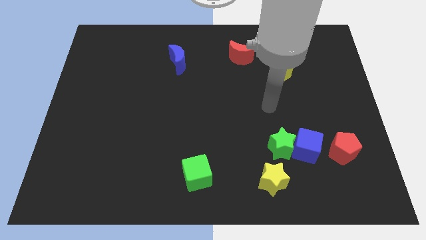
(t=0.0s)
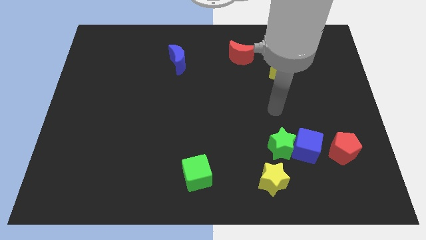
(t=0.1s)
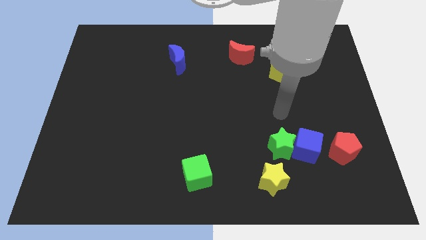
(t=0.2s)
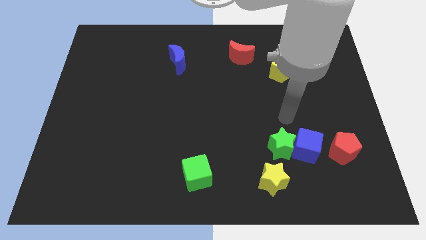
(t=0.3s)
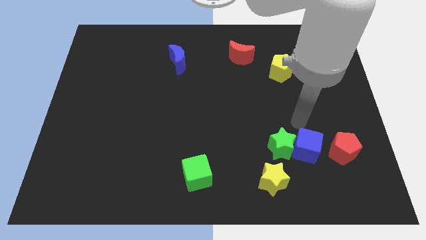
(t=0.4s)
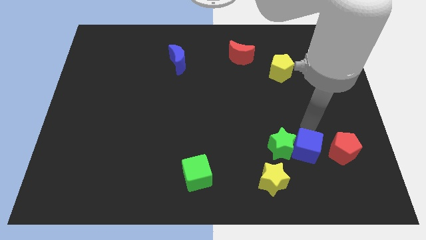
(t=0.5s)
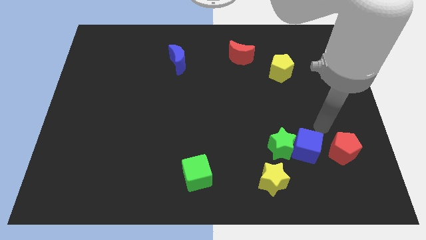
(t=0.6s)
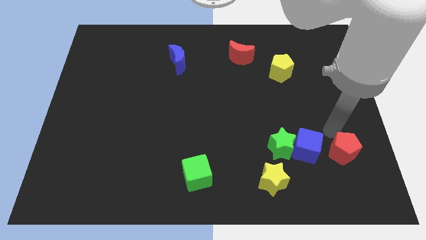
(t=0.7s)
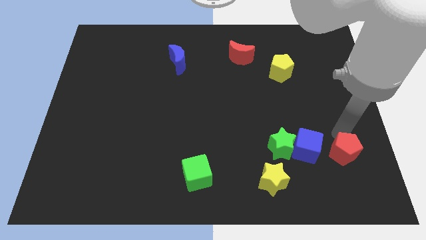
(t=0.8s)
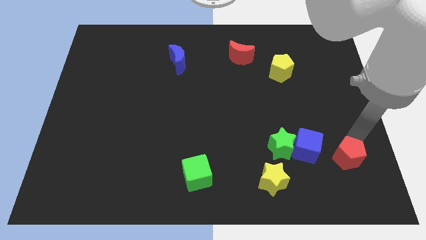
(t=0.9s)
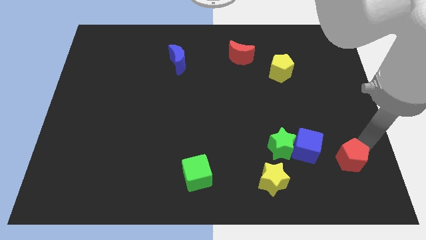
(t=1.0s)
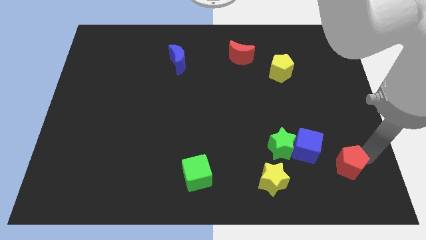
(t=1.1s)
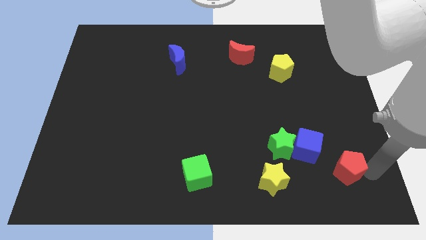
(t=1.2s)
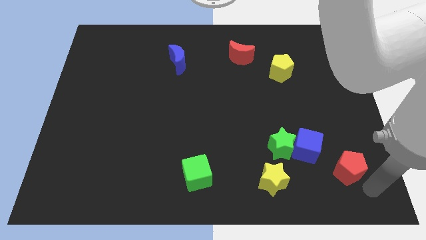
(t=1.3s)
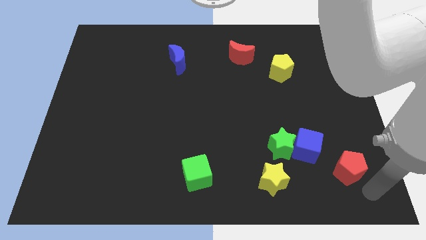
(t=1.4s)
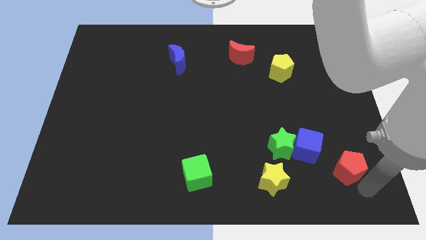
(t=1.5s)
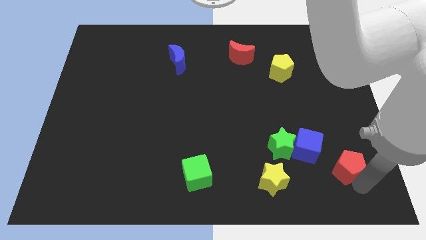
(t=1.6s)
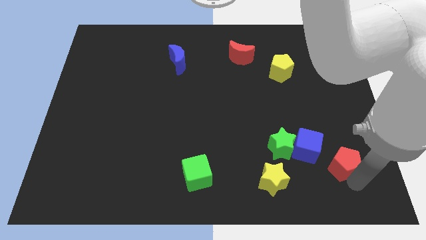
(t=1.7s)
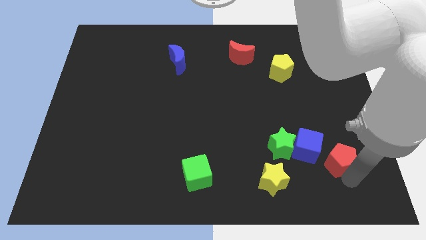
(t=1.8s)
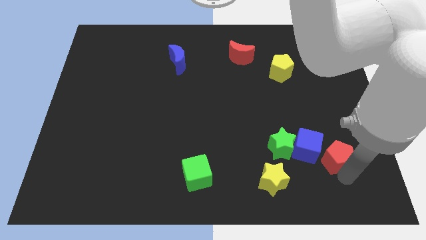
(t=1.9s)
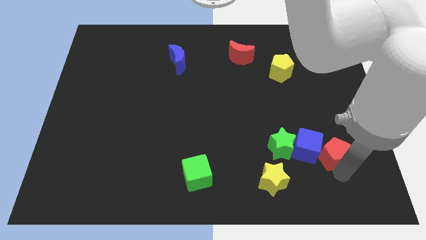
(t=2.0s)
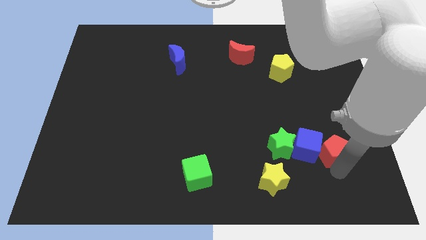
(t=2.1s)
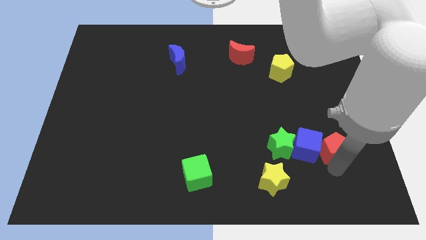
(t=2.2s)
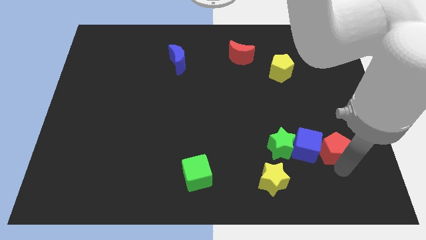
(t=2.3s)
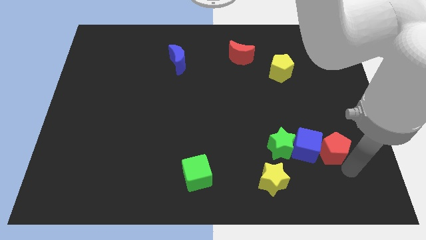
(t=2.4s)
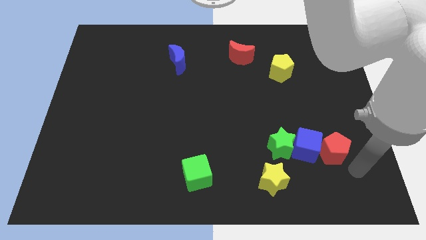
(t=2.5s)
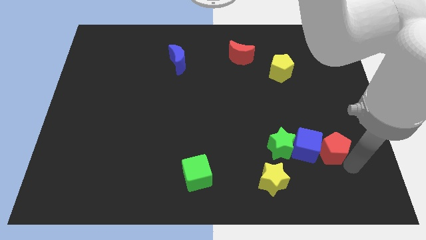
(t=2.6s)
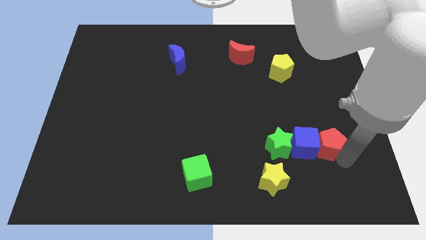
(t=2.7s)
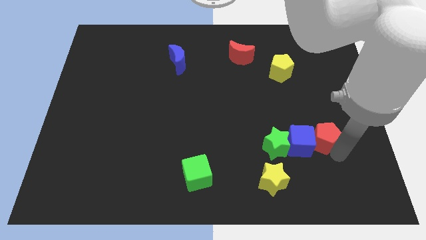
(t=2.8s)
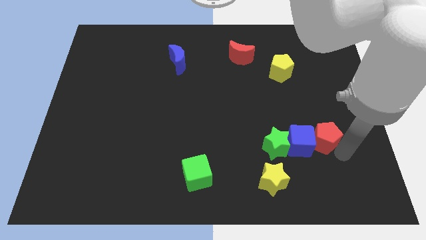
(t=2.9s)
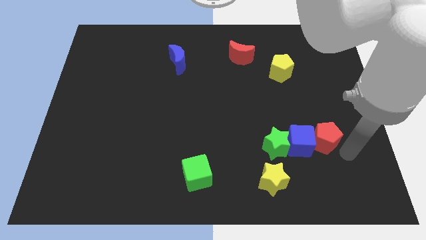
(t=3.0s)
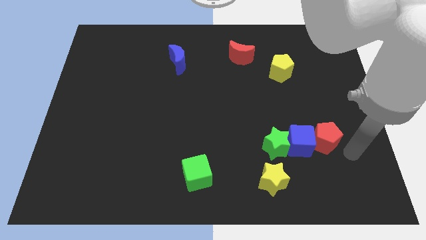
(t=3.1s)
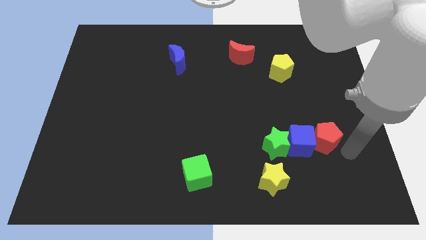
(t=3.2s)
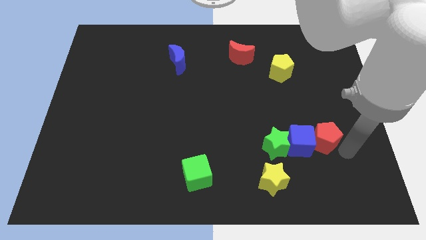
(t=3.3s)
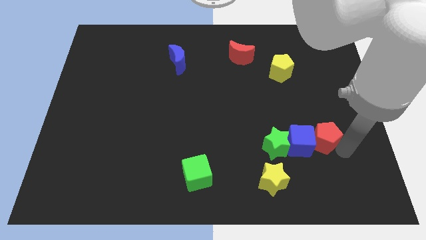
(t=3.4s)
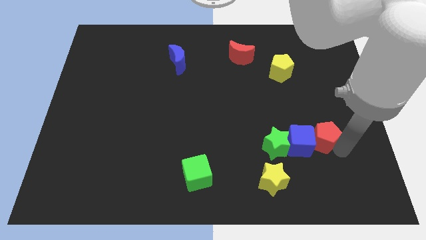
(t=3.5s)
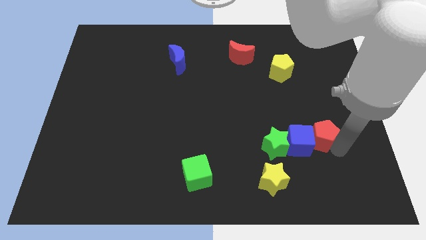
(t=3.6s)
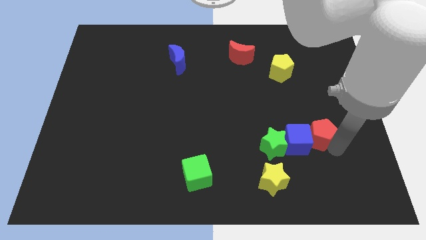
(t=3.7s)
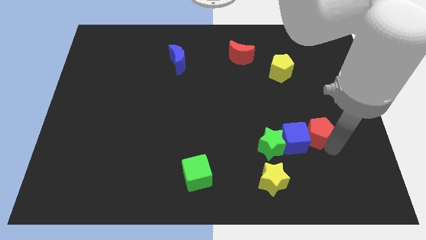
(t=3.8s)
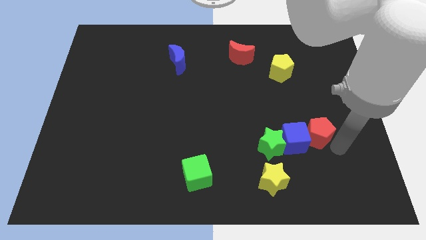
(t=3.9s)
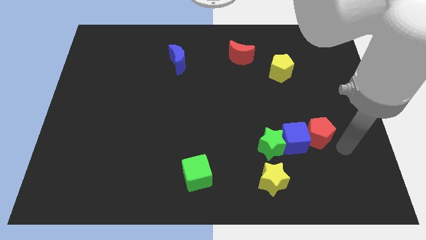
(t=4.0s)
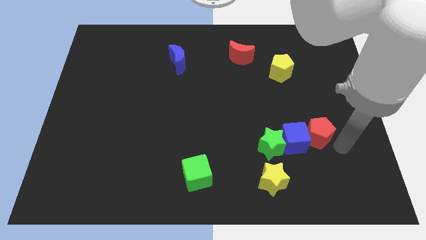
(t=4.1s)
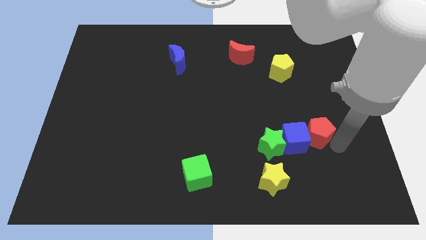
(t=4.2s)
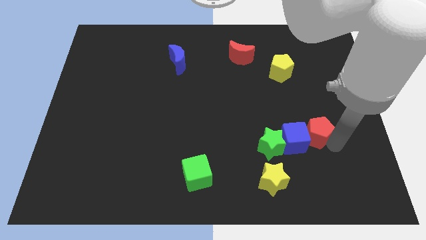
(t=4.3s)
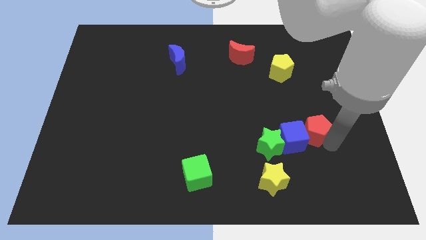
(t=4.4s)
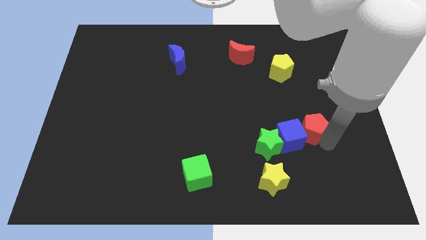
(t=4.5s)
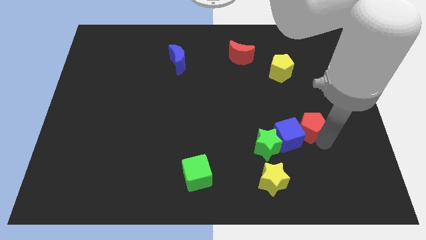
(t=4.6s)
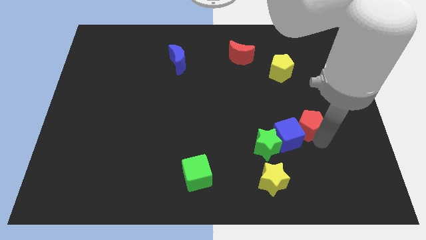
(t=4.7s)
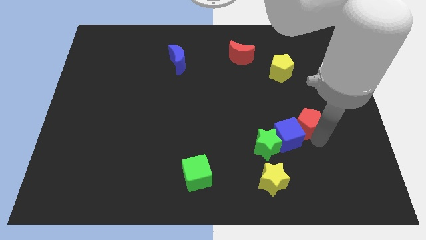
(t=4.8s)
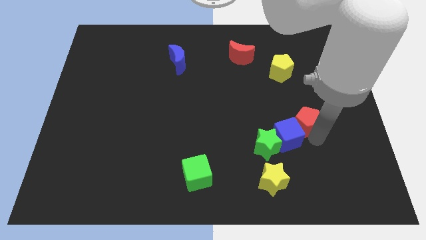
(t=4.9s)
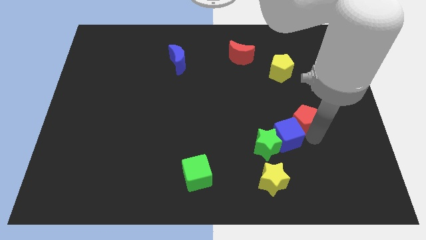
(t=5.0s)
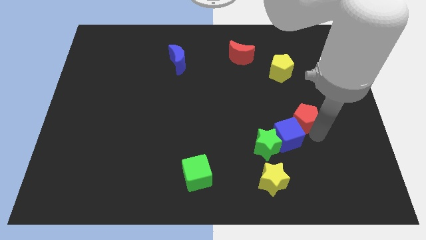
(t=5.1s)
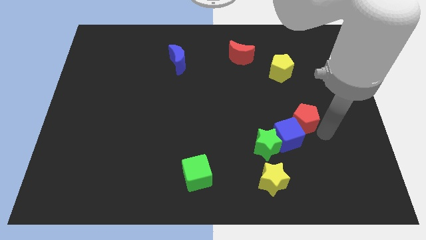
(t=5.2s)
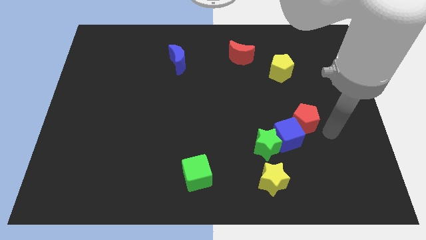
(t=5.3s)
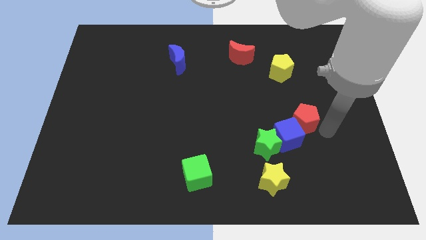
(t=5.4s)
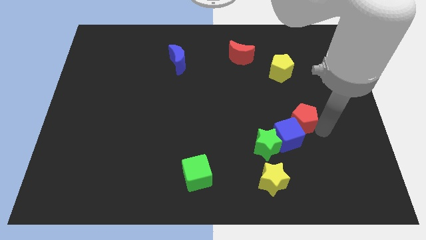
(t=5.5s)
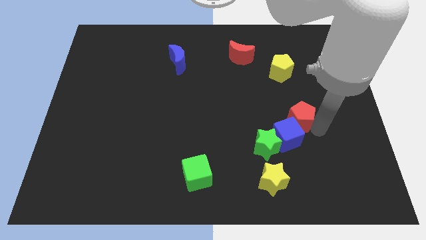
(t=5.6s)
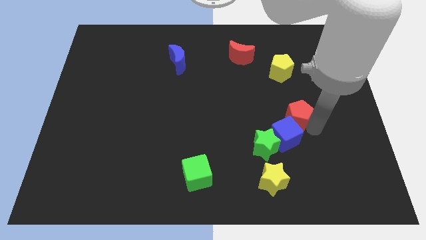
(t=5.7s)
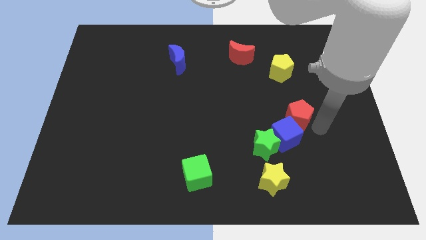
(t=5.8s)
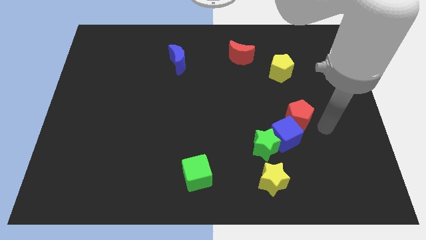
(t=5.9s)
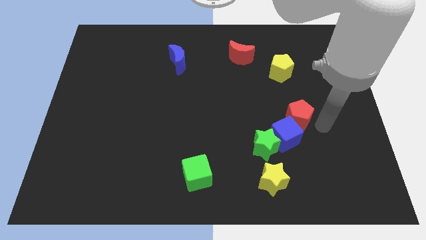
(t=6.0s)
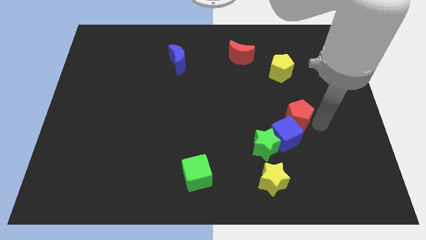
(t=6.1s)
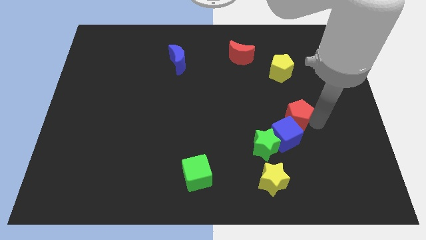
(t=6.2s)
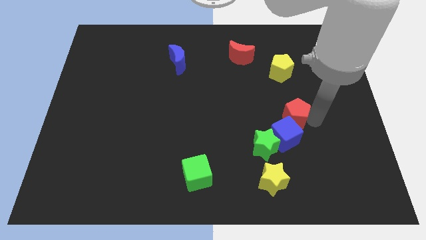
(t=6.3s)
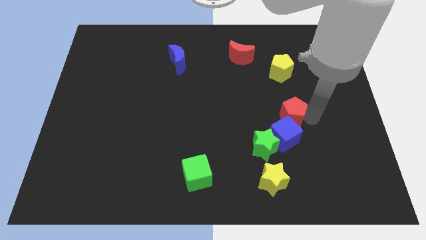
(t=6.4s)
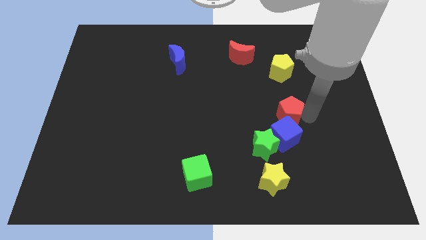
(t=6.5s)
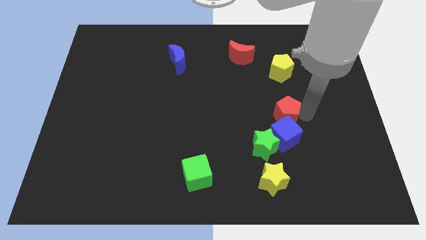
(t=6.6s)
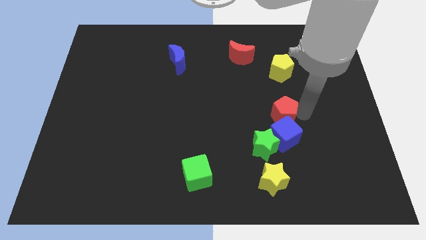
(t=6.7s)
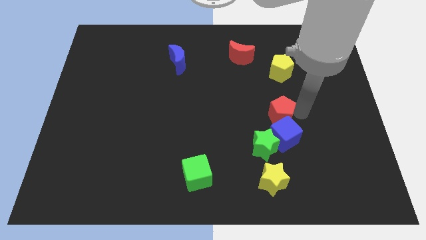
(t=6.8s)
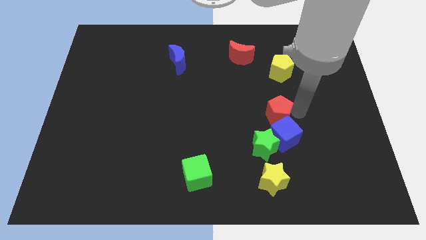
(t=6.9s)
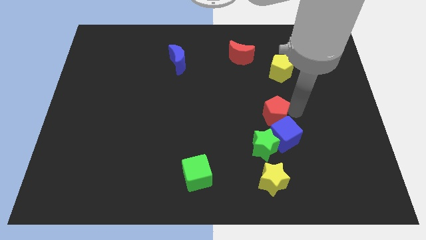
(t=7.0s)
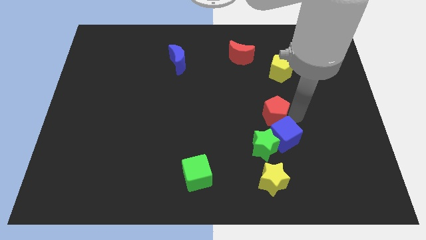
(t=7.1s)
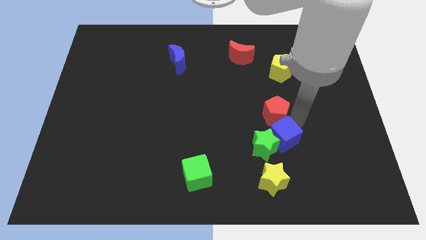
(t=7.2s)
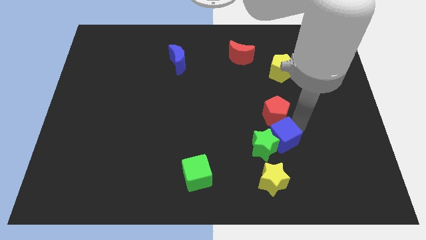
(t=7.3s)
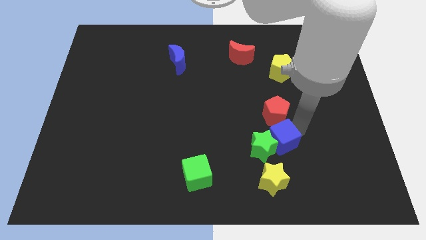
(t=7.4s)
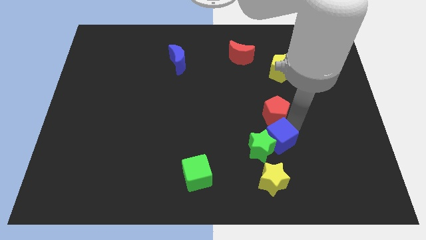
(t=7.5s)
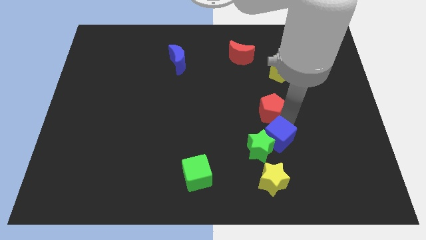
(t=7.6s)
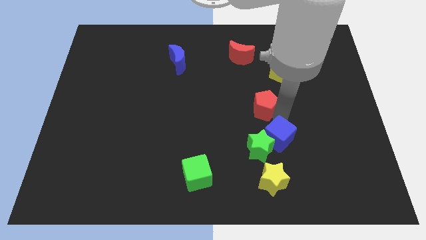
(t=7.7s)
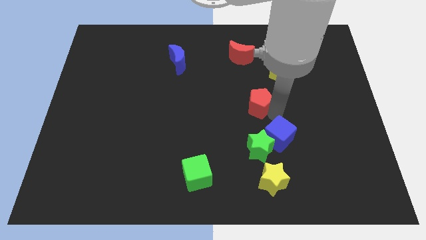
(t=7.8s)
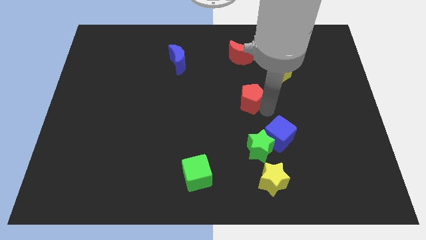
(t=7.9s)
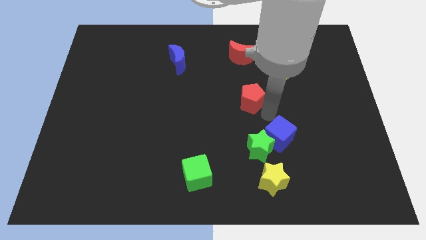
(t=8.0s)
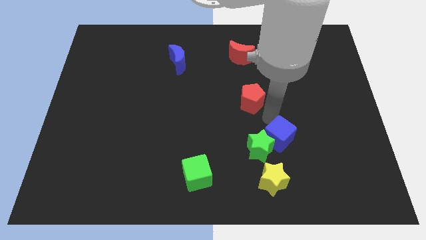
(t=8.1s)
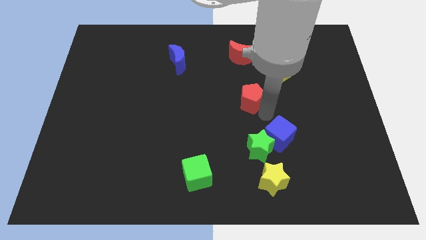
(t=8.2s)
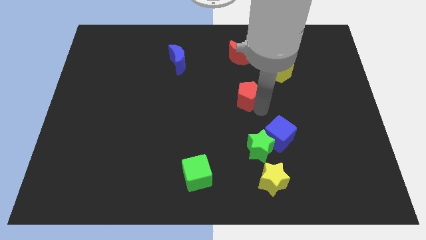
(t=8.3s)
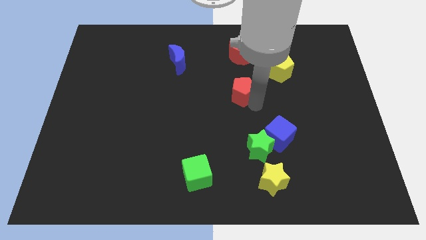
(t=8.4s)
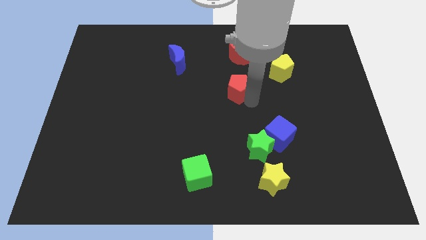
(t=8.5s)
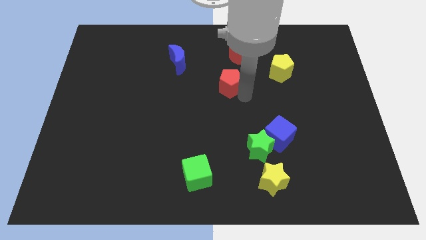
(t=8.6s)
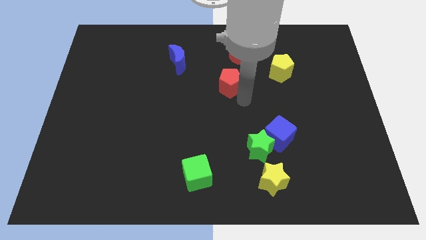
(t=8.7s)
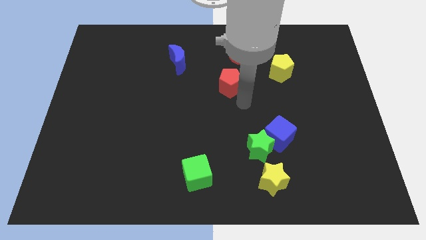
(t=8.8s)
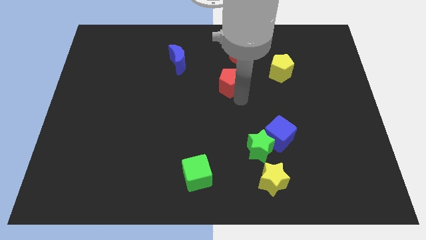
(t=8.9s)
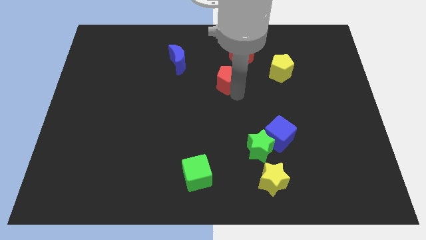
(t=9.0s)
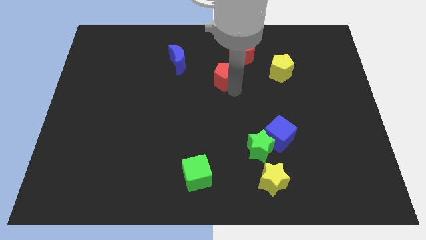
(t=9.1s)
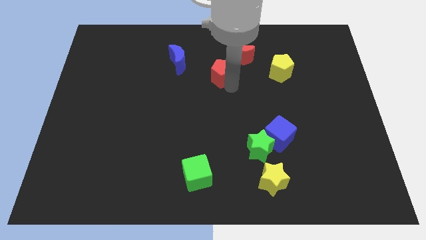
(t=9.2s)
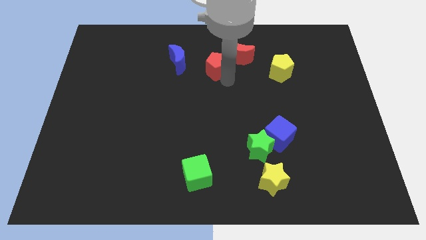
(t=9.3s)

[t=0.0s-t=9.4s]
slide the red pentagon to the left side of the red moon
